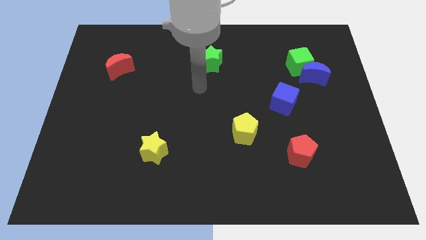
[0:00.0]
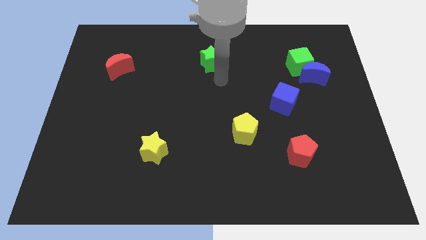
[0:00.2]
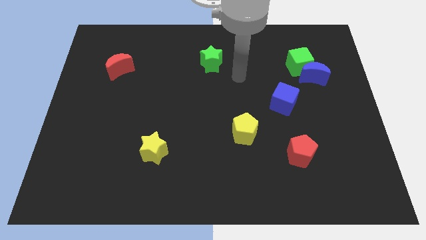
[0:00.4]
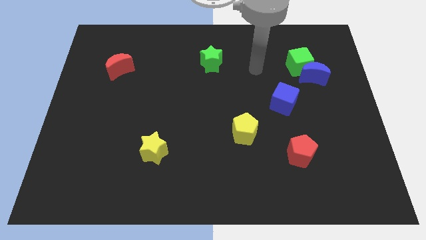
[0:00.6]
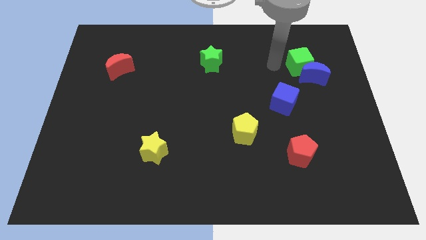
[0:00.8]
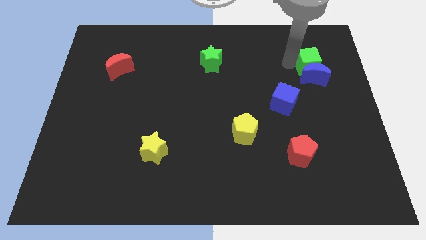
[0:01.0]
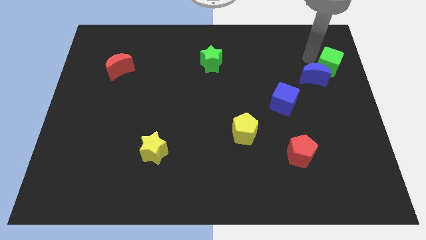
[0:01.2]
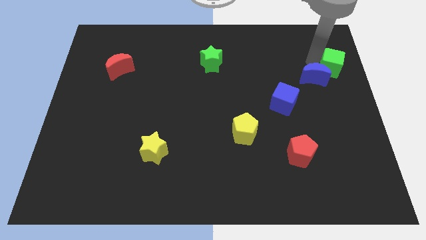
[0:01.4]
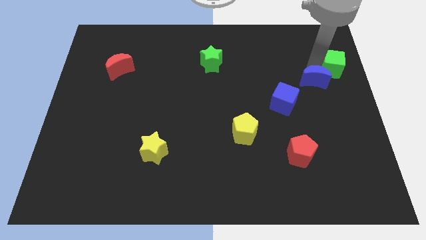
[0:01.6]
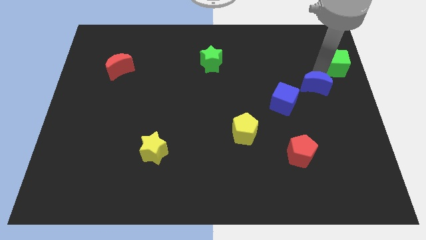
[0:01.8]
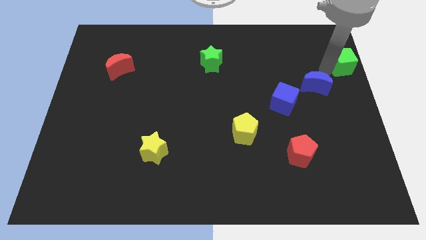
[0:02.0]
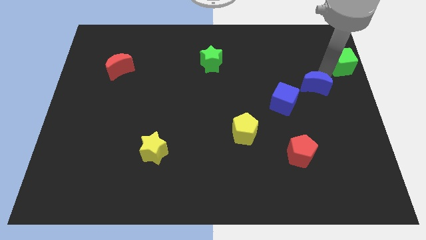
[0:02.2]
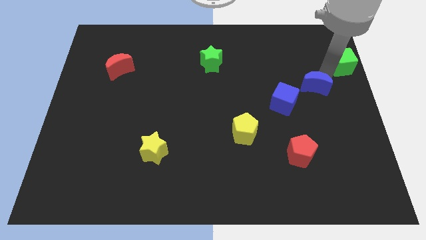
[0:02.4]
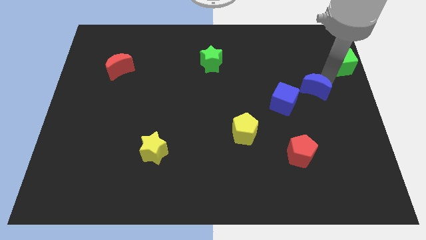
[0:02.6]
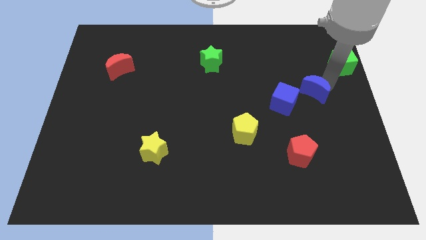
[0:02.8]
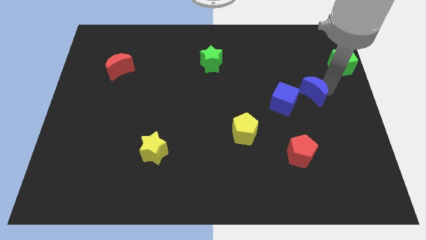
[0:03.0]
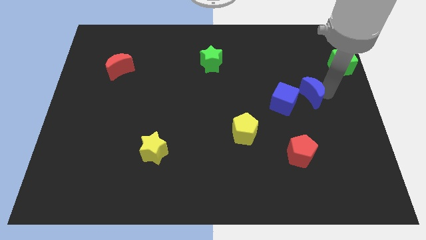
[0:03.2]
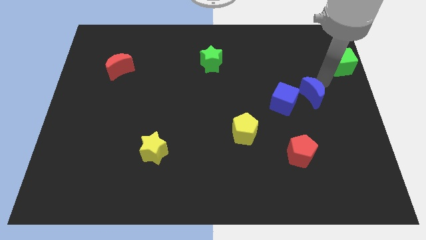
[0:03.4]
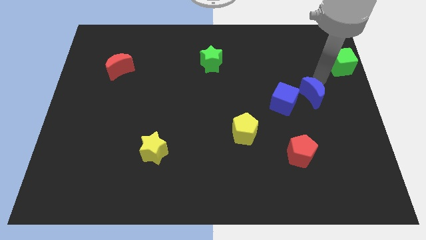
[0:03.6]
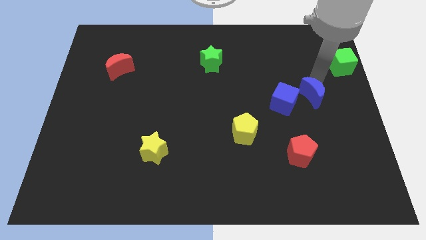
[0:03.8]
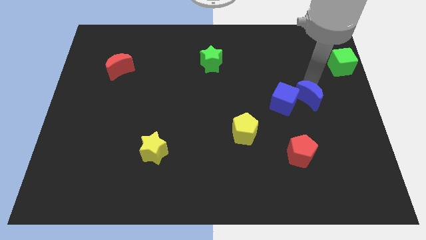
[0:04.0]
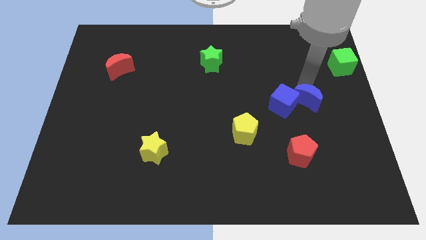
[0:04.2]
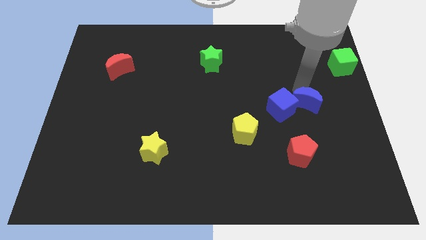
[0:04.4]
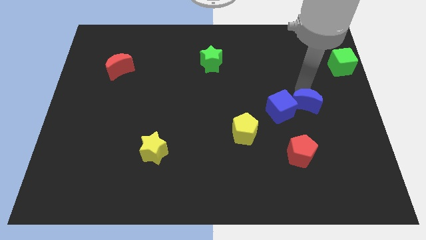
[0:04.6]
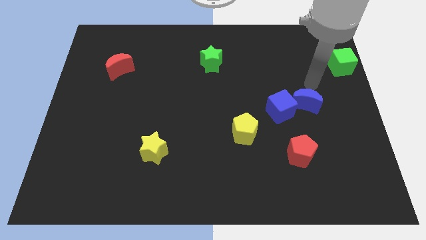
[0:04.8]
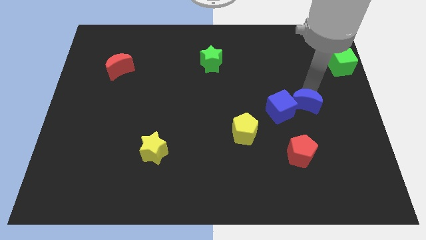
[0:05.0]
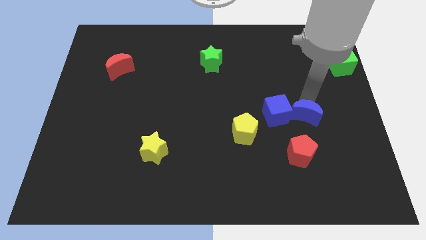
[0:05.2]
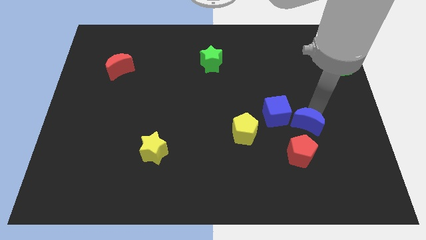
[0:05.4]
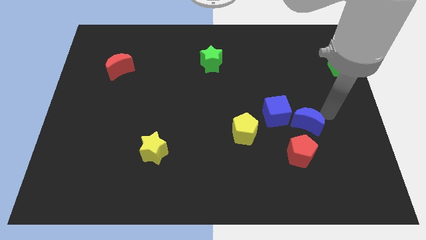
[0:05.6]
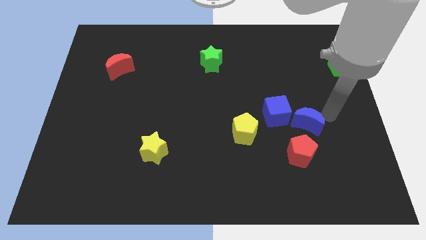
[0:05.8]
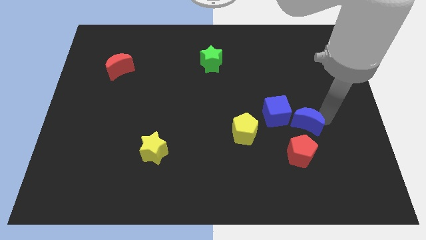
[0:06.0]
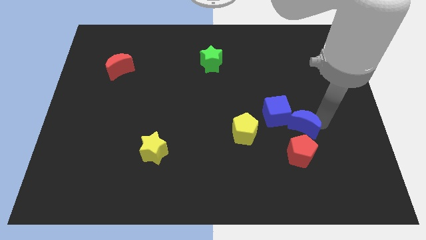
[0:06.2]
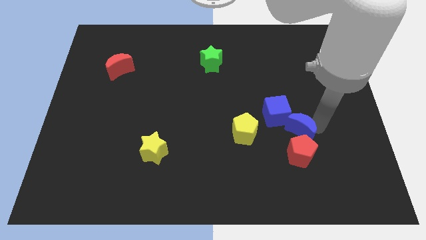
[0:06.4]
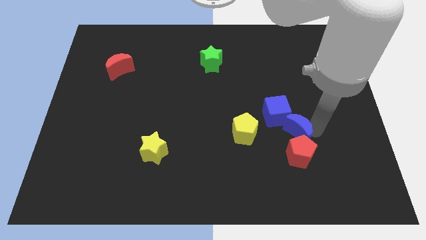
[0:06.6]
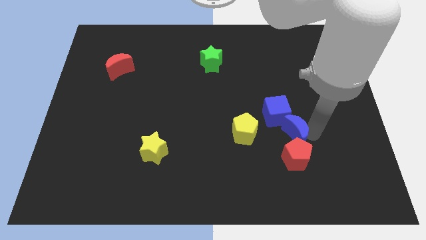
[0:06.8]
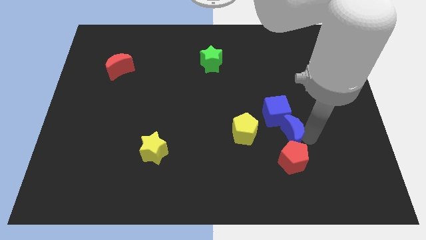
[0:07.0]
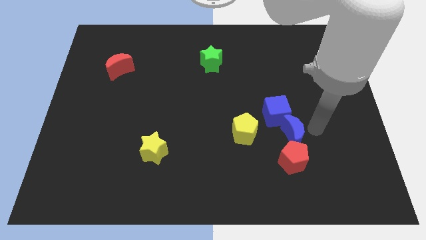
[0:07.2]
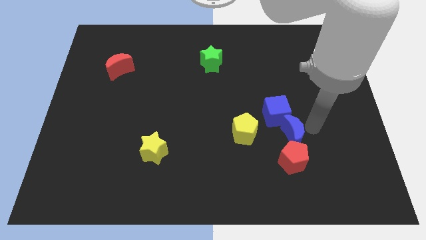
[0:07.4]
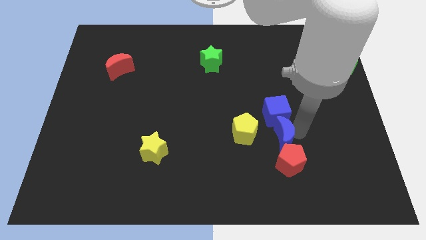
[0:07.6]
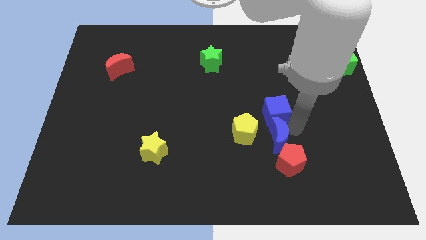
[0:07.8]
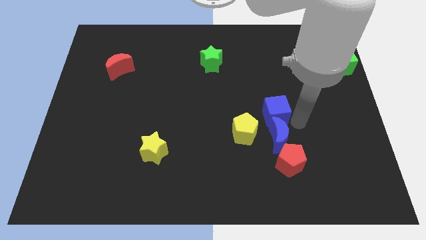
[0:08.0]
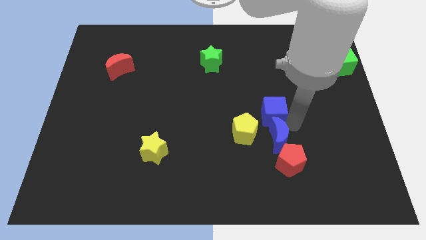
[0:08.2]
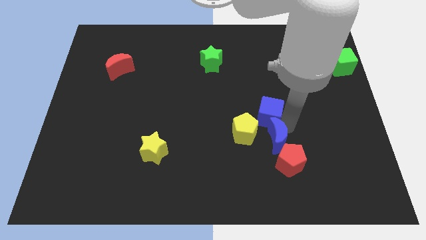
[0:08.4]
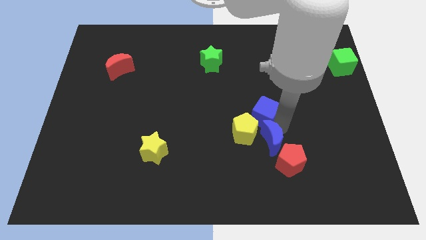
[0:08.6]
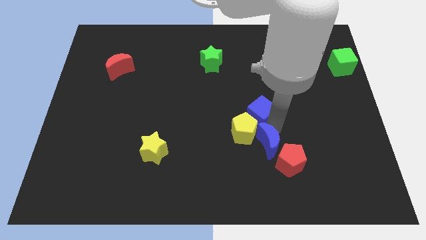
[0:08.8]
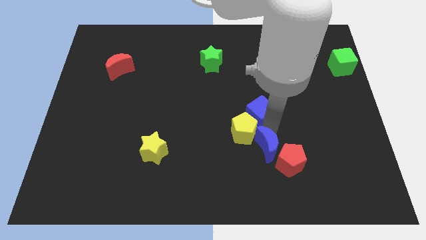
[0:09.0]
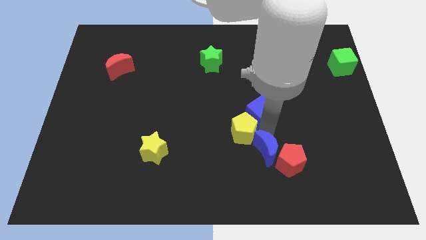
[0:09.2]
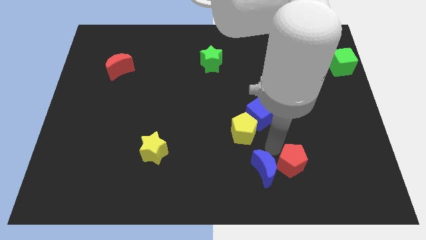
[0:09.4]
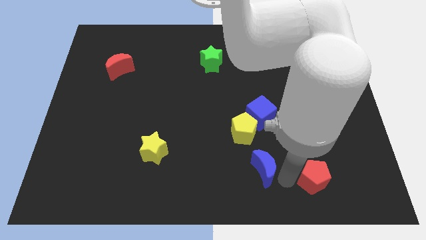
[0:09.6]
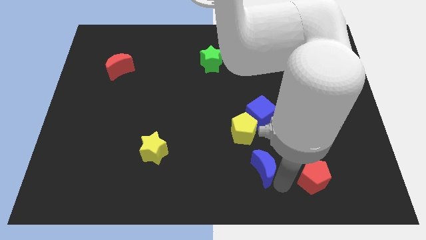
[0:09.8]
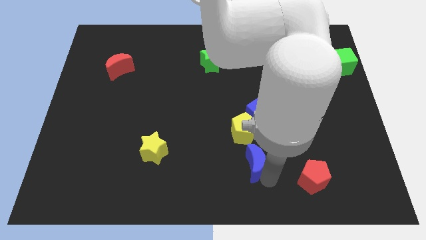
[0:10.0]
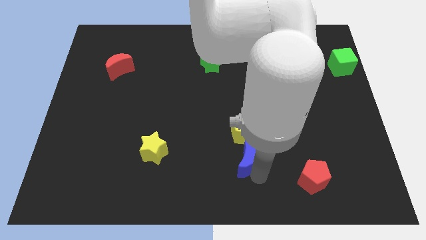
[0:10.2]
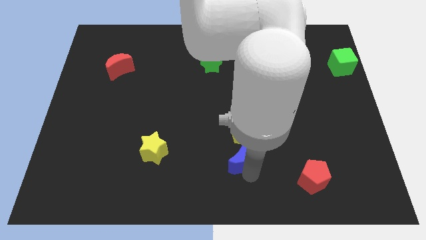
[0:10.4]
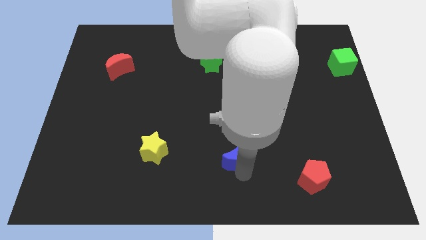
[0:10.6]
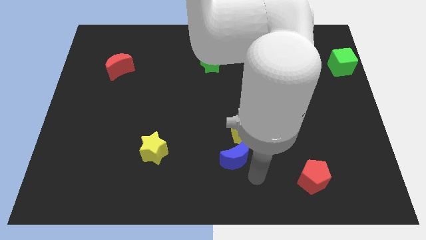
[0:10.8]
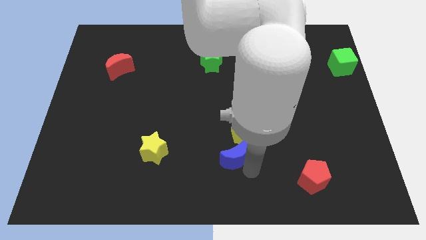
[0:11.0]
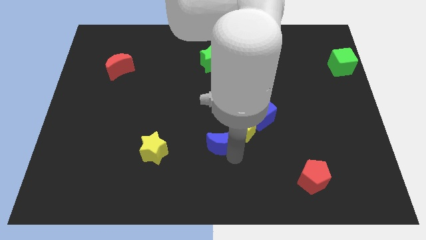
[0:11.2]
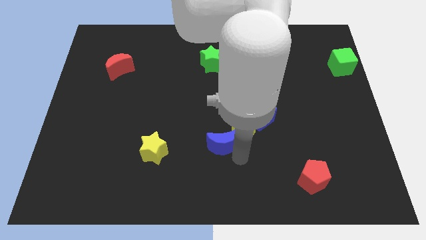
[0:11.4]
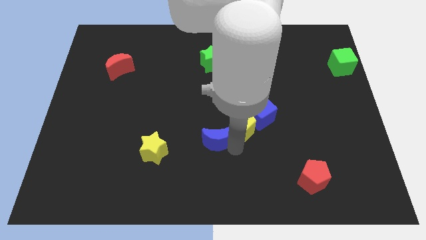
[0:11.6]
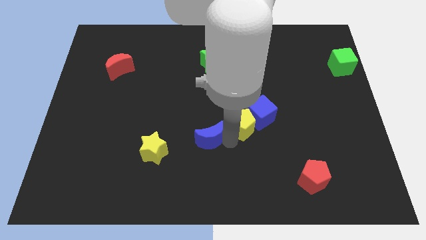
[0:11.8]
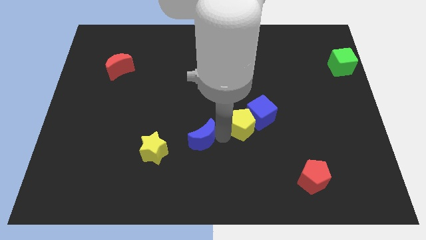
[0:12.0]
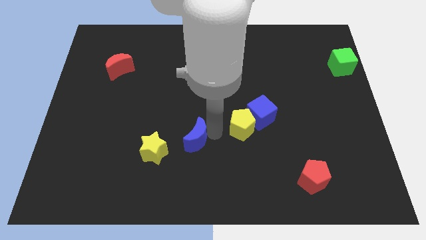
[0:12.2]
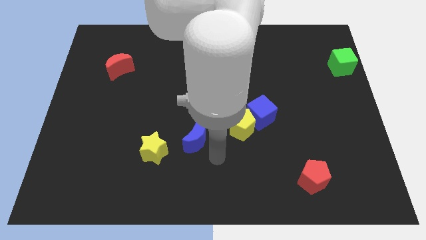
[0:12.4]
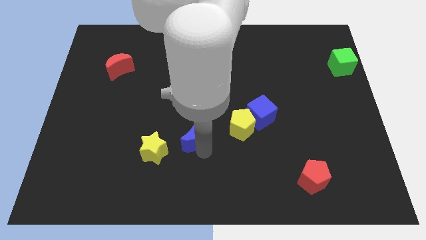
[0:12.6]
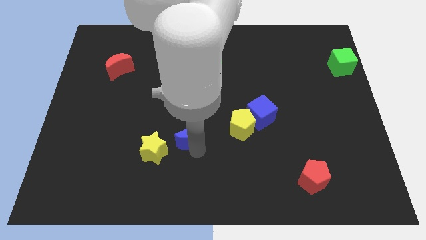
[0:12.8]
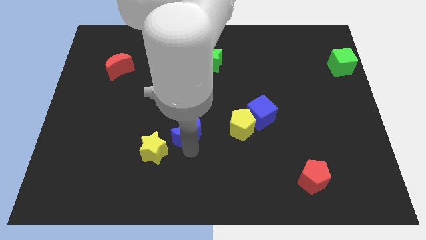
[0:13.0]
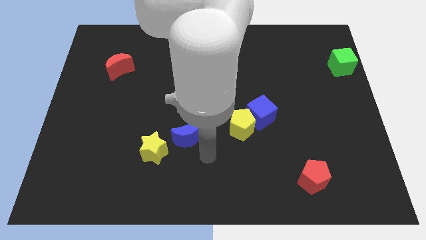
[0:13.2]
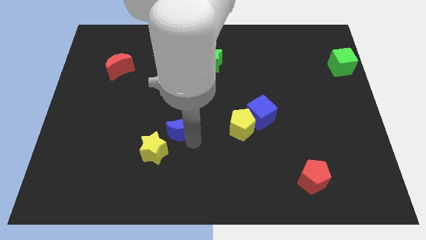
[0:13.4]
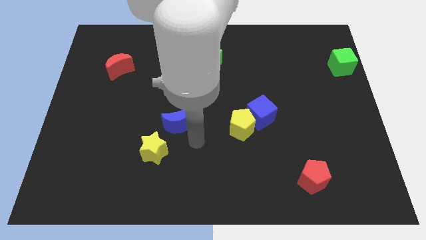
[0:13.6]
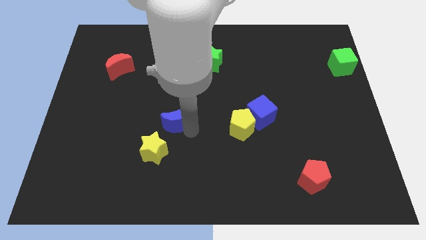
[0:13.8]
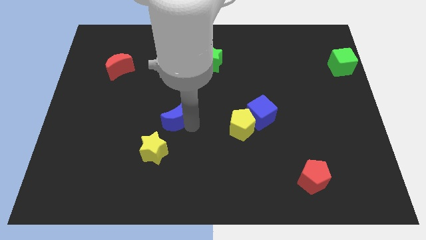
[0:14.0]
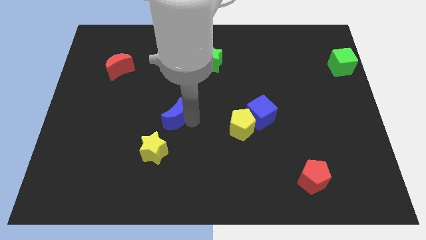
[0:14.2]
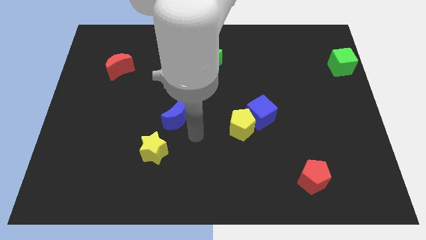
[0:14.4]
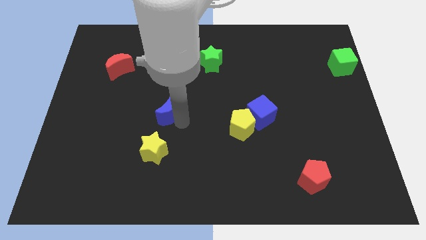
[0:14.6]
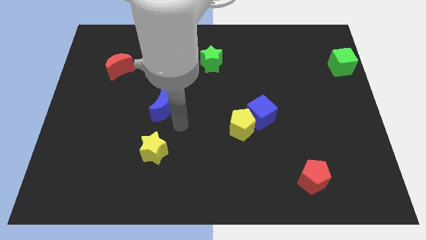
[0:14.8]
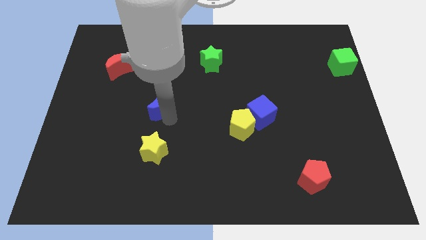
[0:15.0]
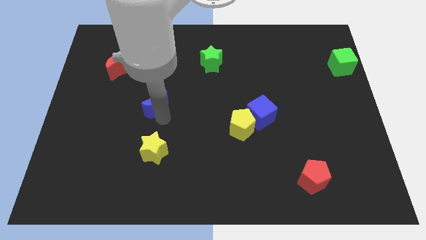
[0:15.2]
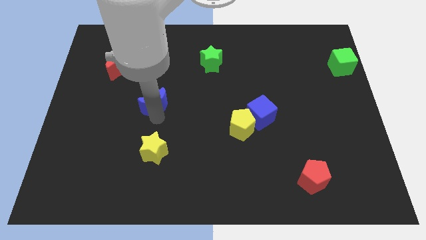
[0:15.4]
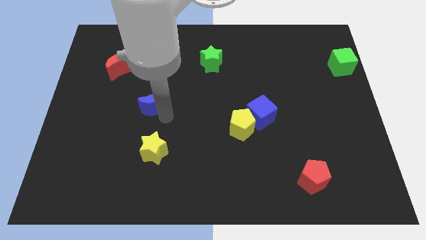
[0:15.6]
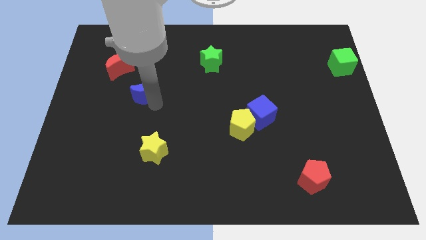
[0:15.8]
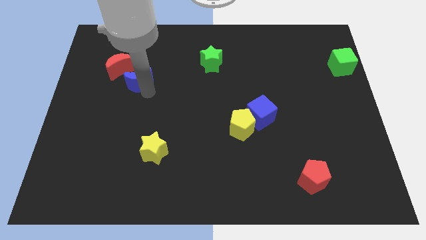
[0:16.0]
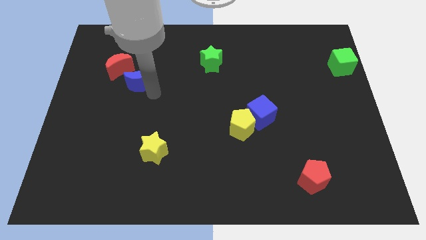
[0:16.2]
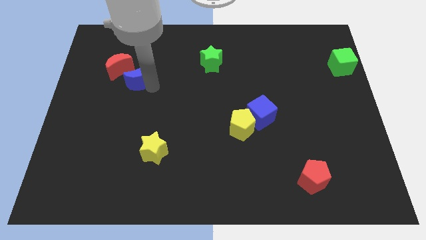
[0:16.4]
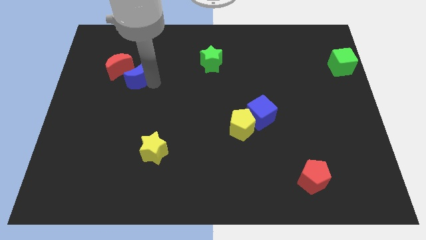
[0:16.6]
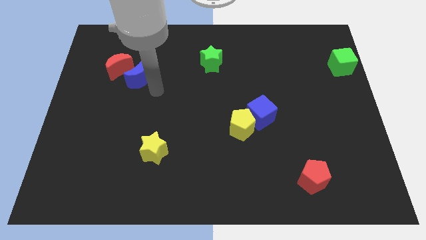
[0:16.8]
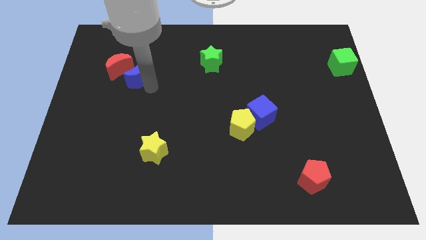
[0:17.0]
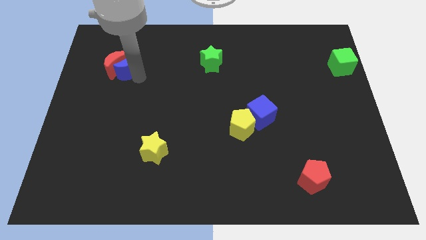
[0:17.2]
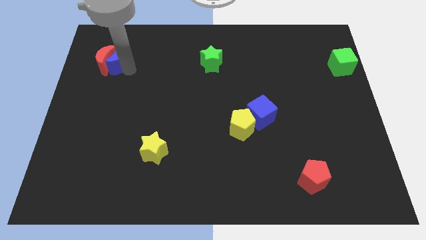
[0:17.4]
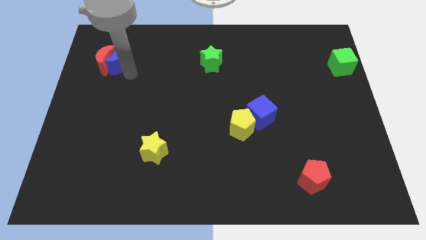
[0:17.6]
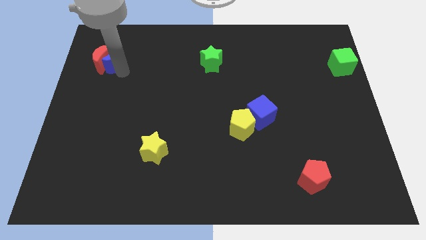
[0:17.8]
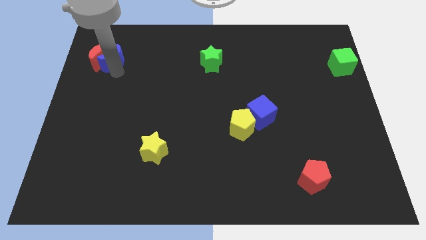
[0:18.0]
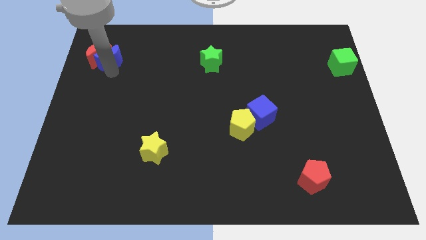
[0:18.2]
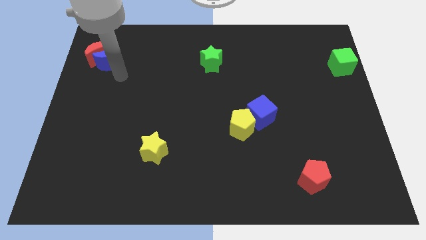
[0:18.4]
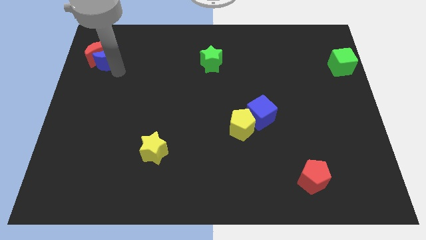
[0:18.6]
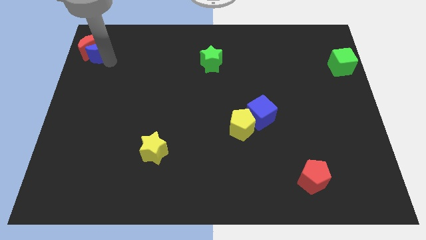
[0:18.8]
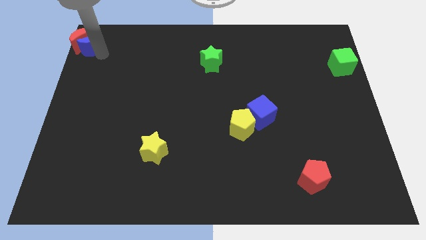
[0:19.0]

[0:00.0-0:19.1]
move the blue moon to the upper left corner
